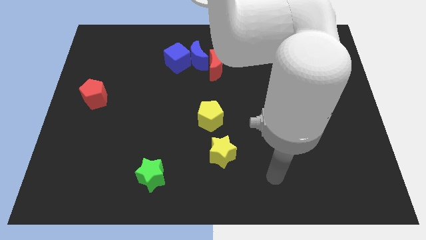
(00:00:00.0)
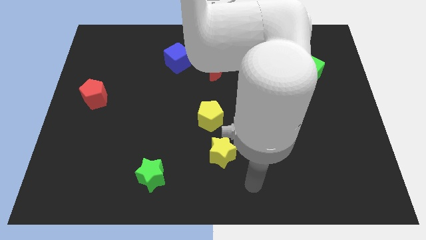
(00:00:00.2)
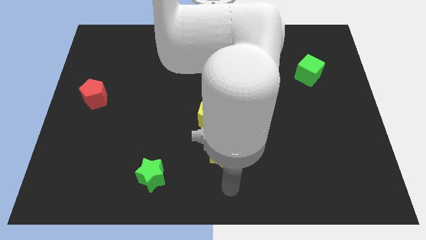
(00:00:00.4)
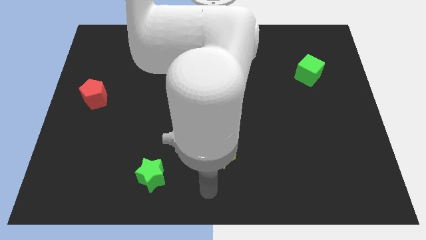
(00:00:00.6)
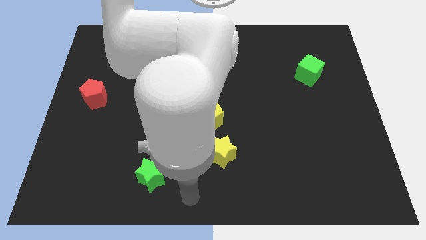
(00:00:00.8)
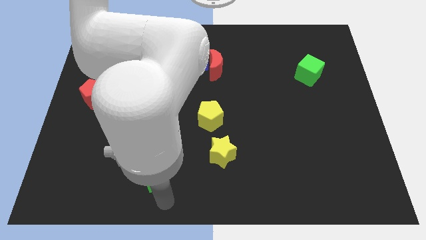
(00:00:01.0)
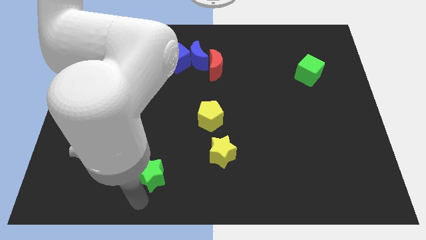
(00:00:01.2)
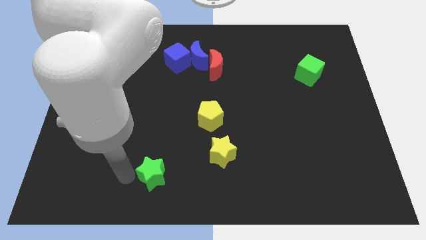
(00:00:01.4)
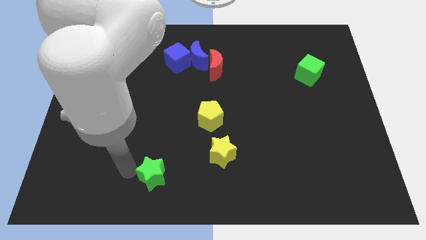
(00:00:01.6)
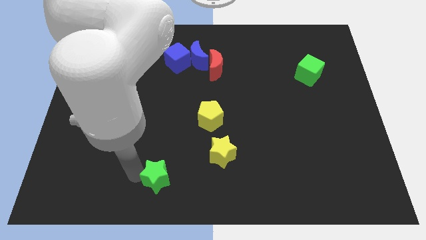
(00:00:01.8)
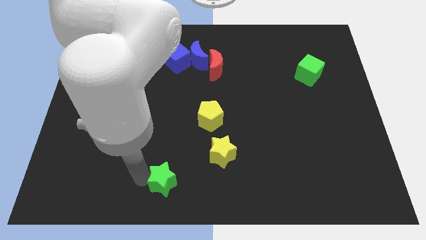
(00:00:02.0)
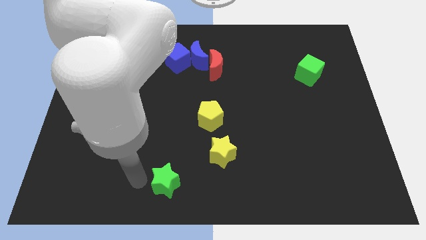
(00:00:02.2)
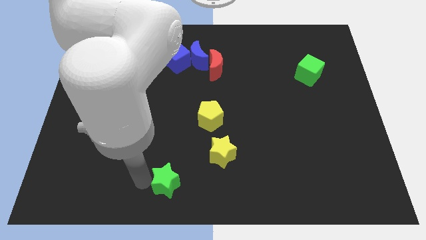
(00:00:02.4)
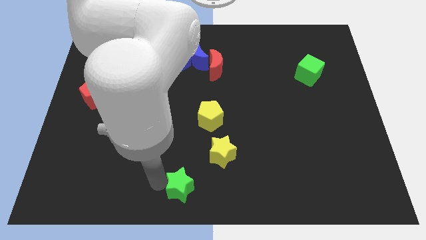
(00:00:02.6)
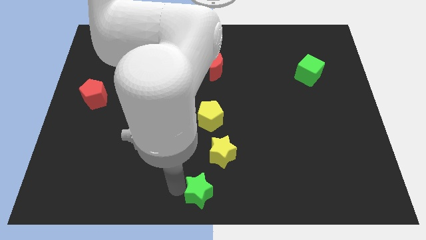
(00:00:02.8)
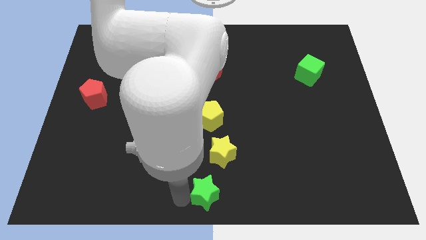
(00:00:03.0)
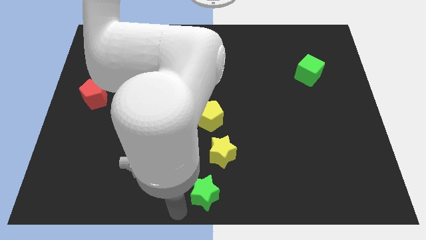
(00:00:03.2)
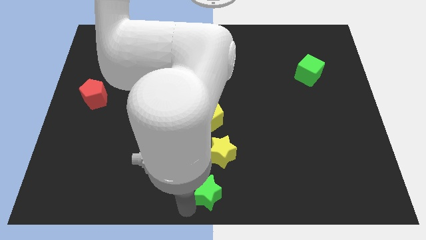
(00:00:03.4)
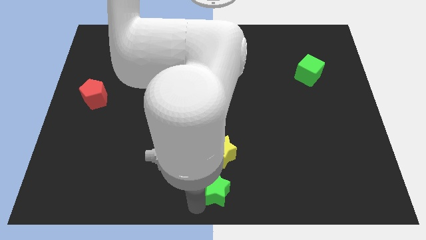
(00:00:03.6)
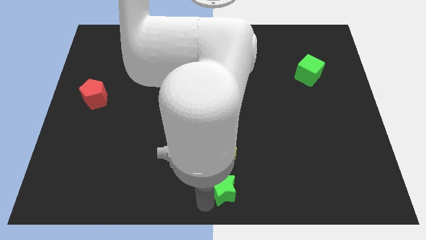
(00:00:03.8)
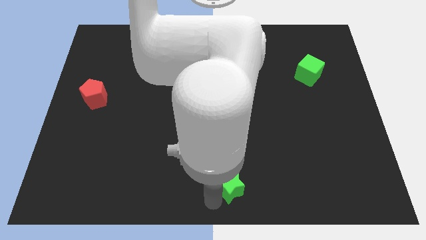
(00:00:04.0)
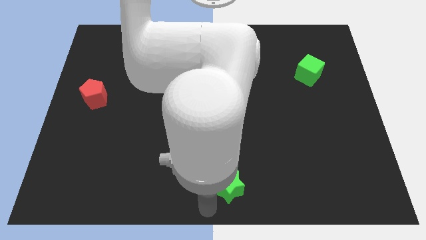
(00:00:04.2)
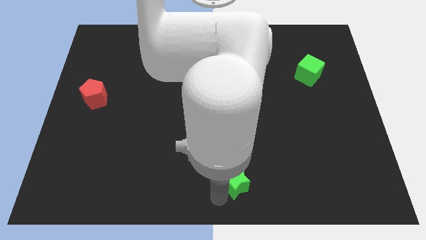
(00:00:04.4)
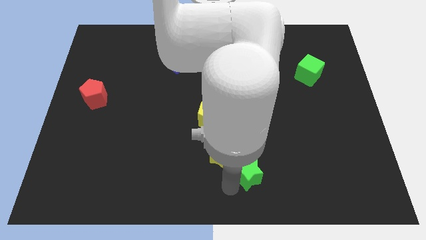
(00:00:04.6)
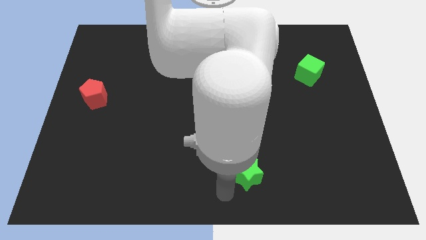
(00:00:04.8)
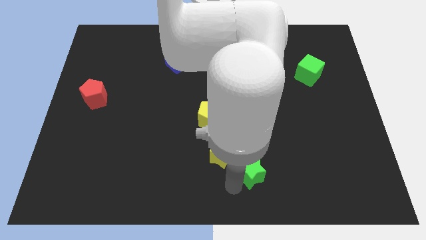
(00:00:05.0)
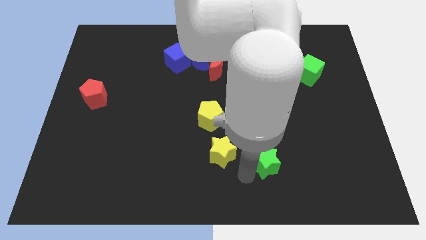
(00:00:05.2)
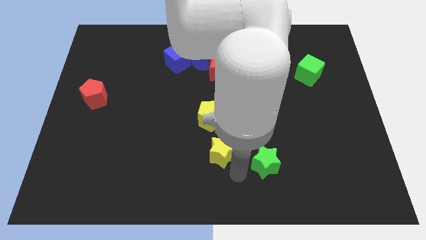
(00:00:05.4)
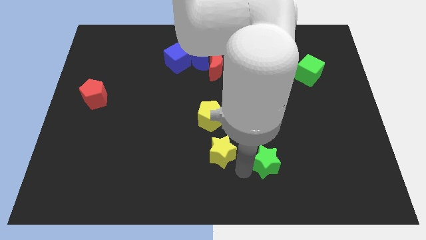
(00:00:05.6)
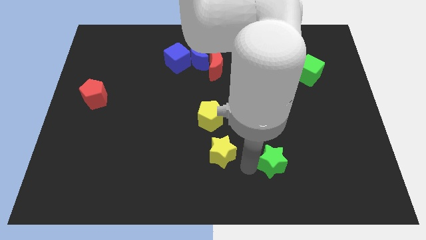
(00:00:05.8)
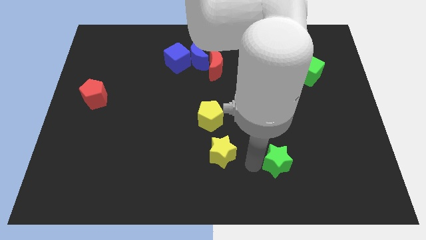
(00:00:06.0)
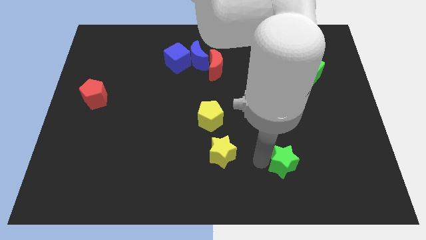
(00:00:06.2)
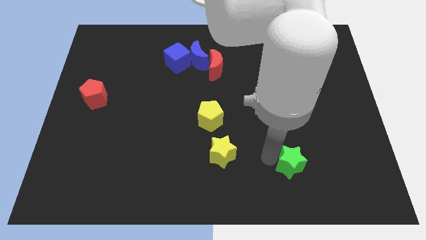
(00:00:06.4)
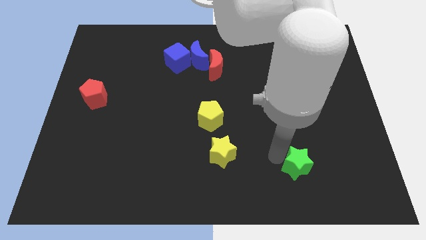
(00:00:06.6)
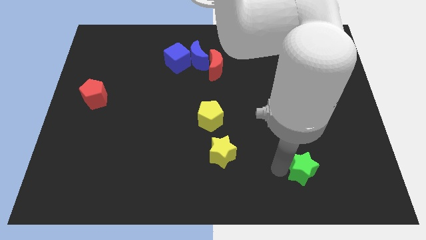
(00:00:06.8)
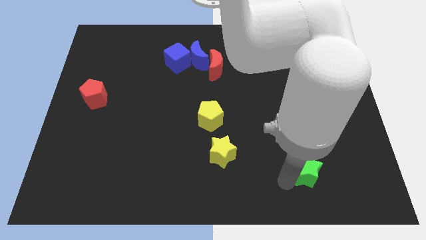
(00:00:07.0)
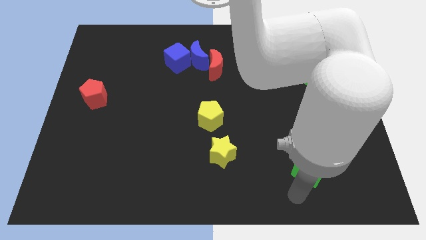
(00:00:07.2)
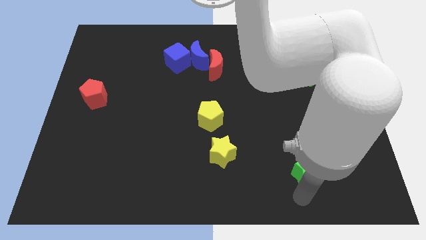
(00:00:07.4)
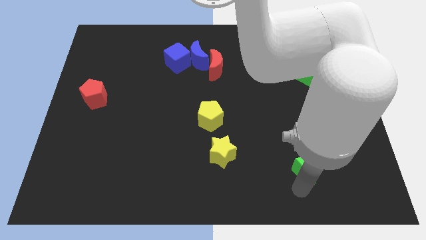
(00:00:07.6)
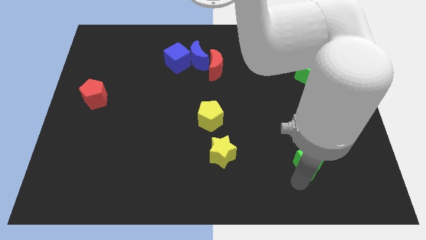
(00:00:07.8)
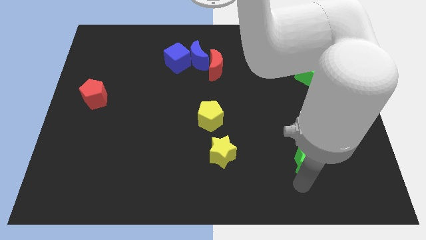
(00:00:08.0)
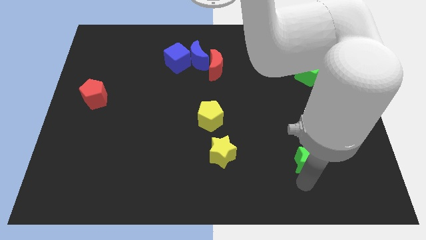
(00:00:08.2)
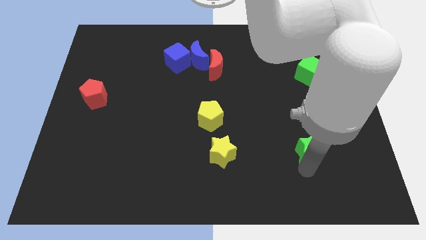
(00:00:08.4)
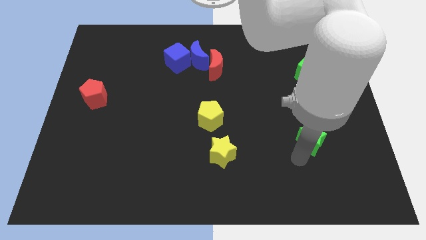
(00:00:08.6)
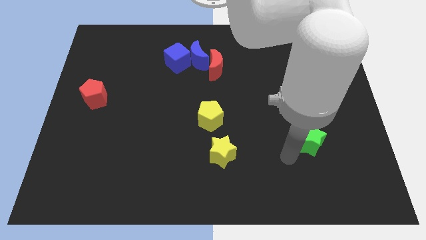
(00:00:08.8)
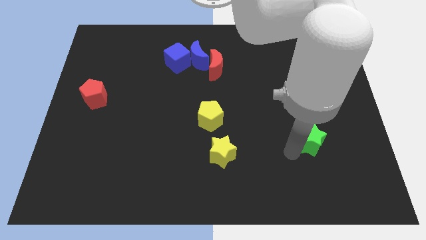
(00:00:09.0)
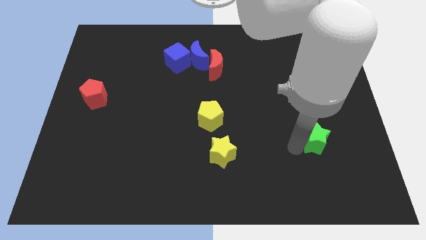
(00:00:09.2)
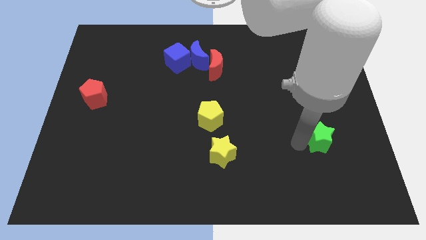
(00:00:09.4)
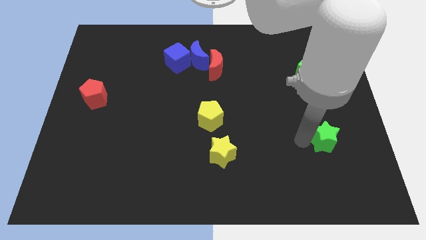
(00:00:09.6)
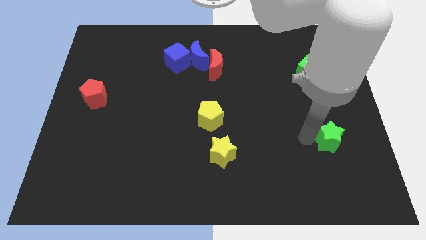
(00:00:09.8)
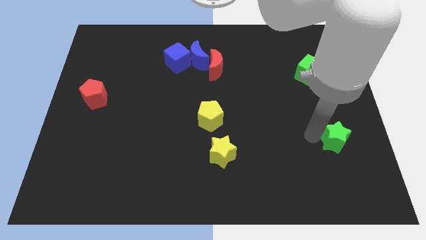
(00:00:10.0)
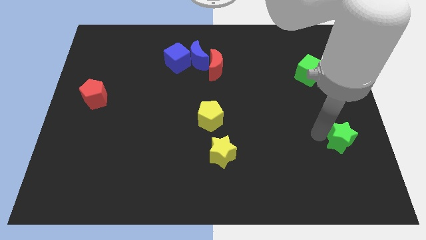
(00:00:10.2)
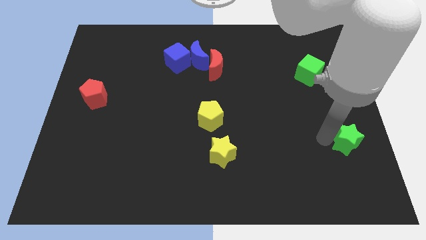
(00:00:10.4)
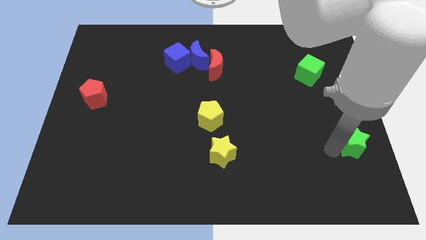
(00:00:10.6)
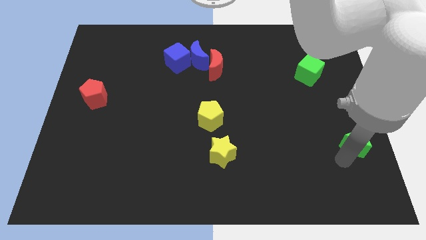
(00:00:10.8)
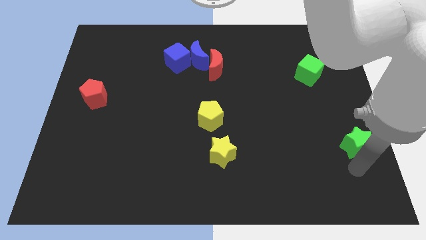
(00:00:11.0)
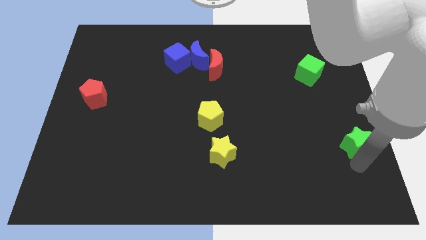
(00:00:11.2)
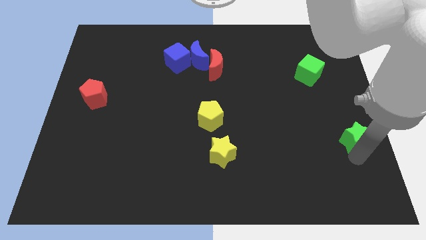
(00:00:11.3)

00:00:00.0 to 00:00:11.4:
move the green star to the right side

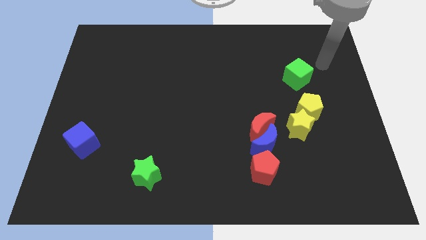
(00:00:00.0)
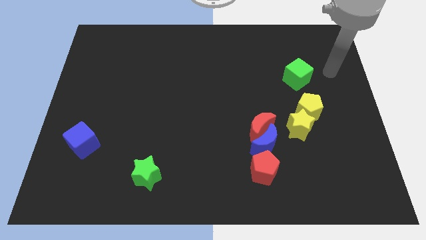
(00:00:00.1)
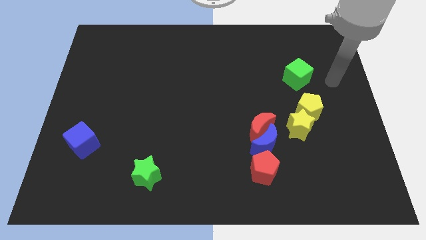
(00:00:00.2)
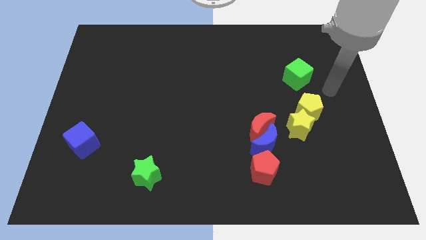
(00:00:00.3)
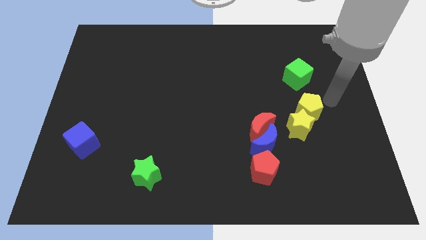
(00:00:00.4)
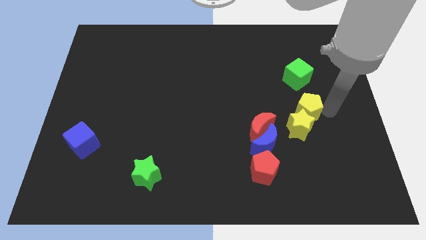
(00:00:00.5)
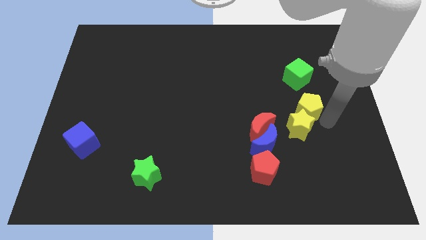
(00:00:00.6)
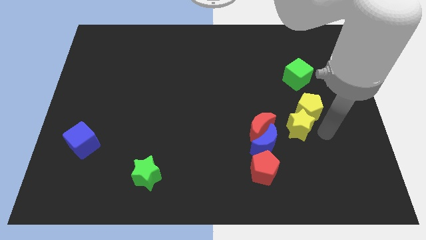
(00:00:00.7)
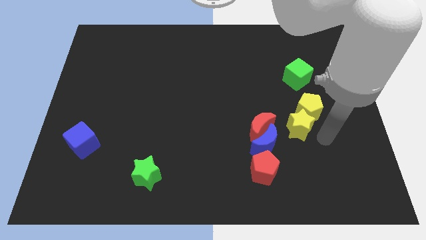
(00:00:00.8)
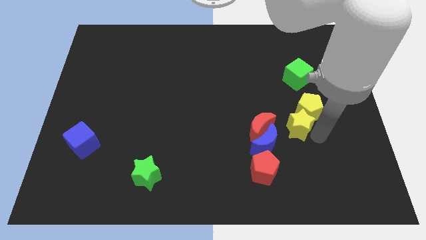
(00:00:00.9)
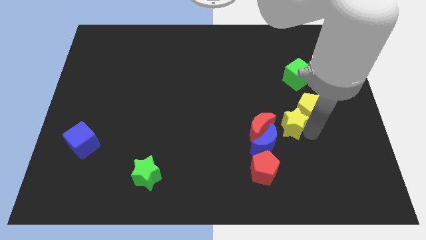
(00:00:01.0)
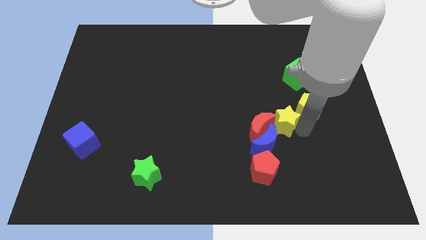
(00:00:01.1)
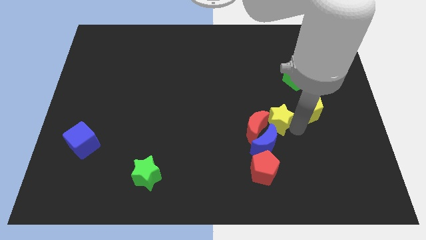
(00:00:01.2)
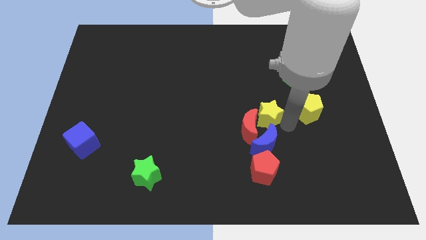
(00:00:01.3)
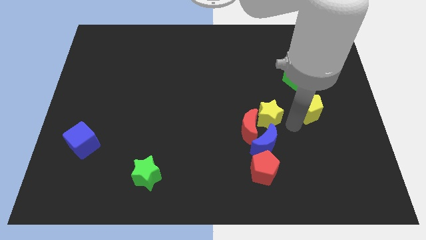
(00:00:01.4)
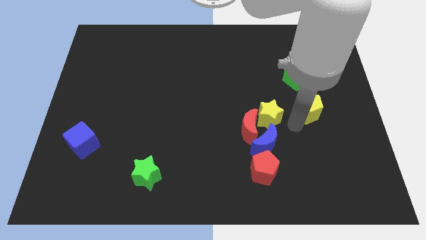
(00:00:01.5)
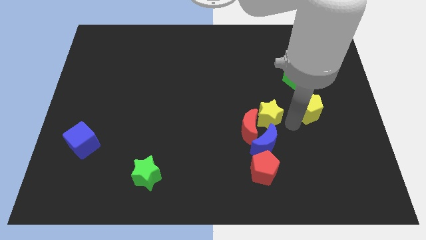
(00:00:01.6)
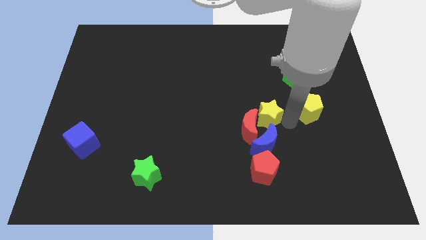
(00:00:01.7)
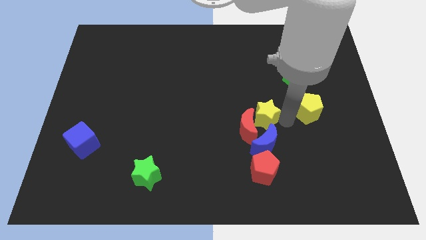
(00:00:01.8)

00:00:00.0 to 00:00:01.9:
put the yellow star to the middle of the board
